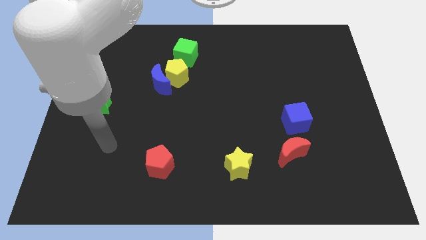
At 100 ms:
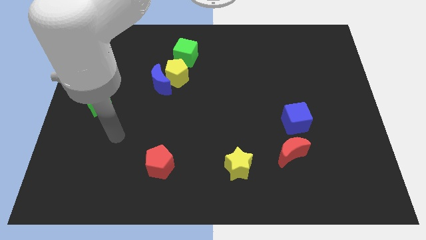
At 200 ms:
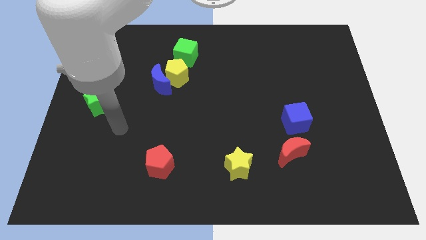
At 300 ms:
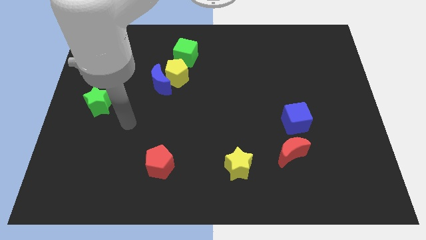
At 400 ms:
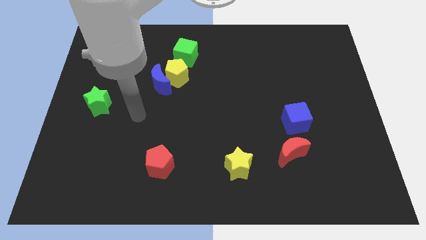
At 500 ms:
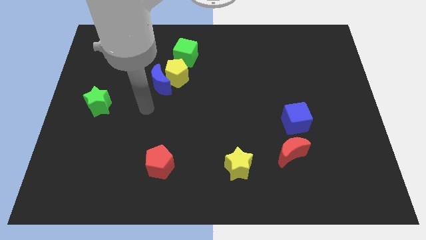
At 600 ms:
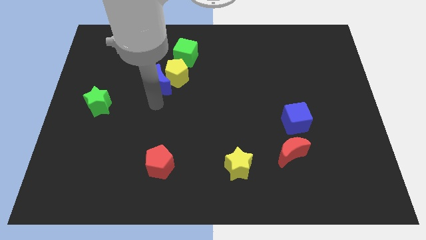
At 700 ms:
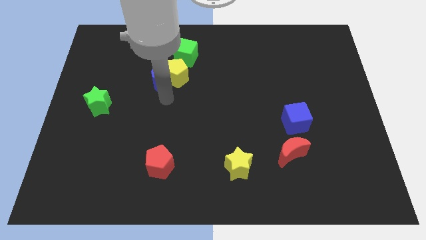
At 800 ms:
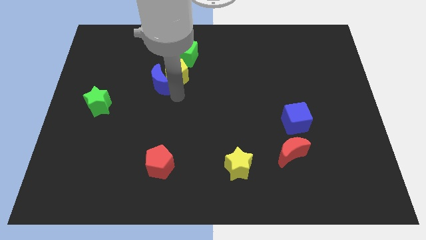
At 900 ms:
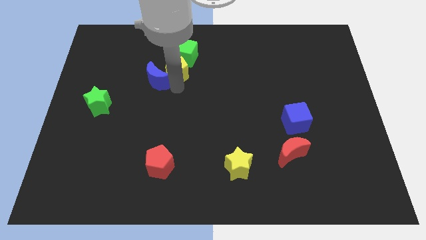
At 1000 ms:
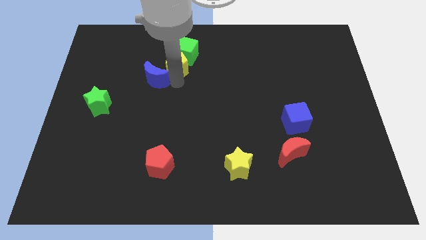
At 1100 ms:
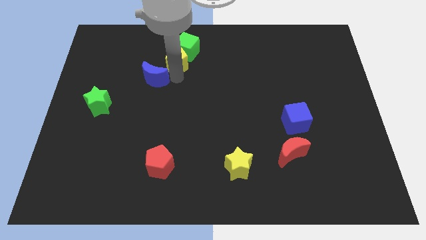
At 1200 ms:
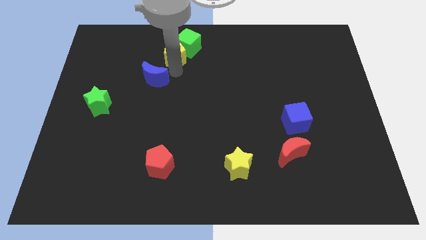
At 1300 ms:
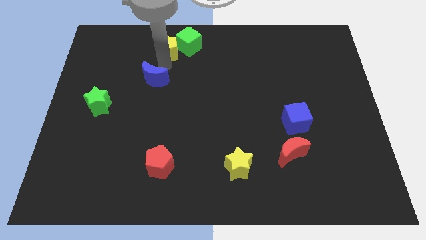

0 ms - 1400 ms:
pull the blue moon apart from the yellow pentagon

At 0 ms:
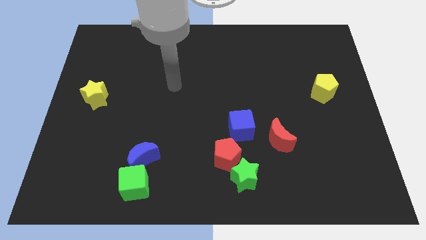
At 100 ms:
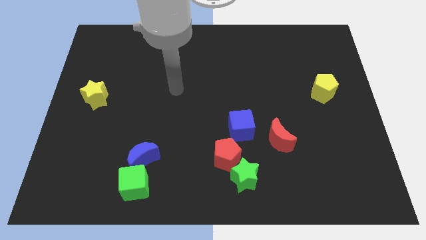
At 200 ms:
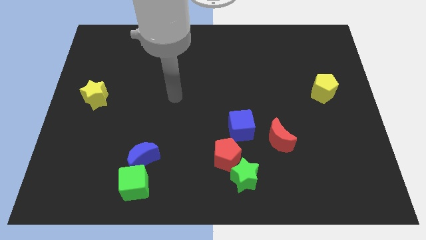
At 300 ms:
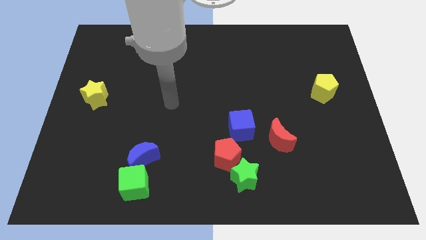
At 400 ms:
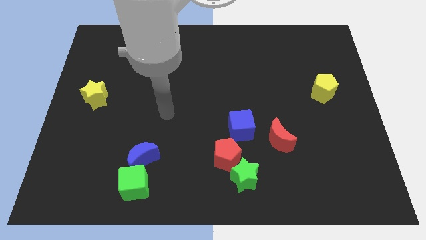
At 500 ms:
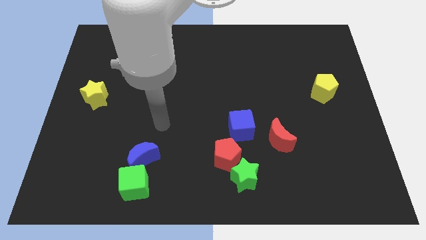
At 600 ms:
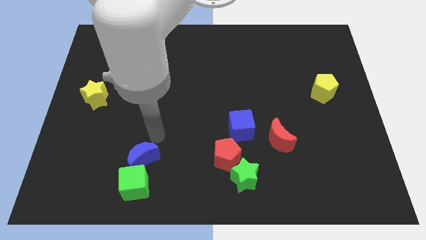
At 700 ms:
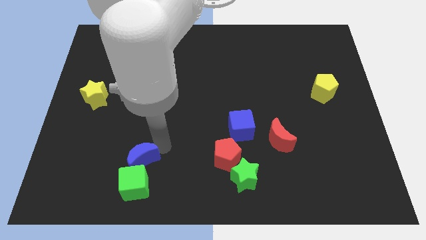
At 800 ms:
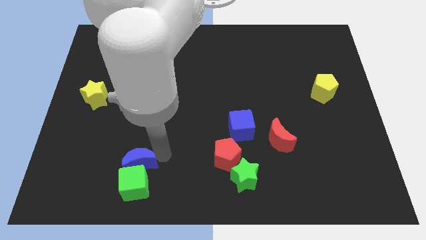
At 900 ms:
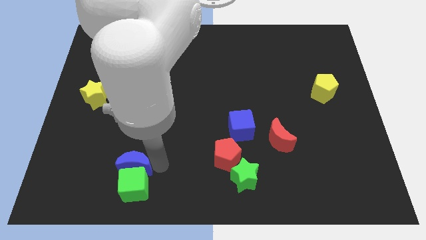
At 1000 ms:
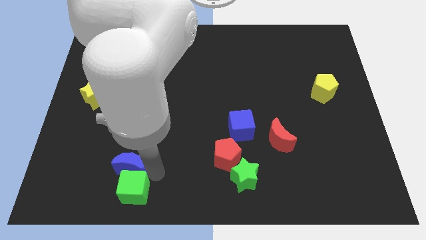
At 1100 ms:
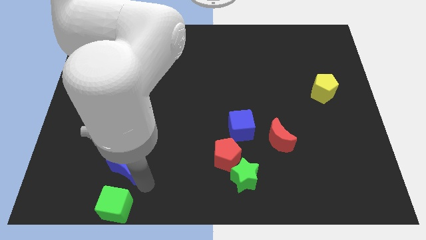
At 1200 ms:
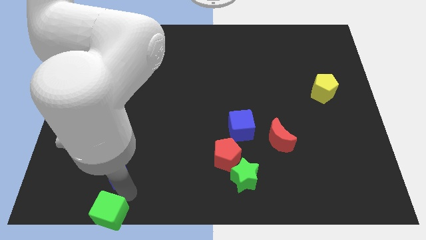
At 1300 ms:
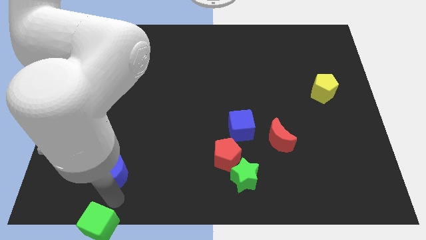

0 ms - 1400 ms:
pull the blue moon apart from the green cube

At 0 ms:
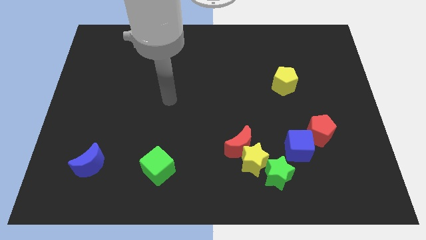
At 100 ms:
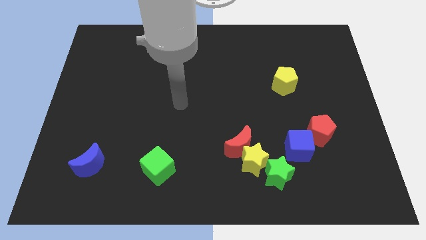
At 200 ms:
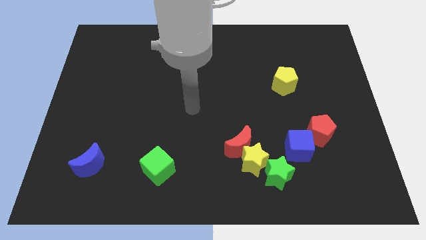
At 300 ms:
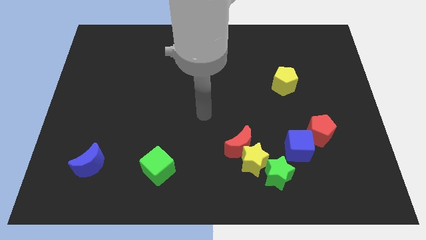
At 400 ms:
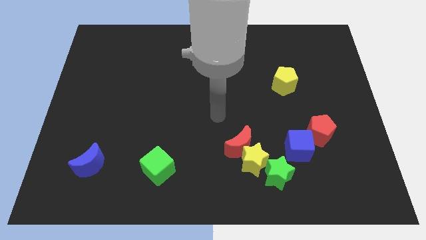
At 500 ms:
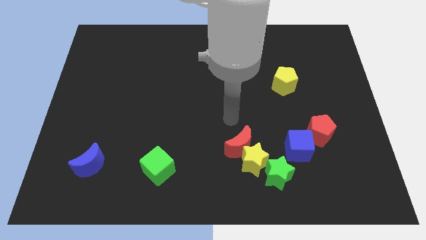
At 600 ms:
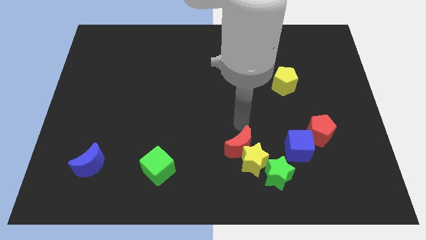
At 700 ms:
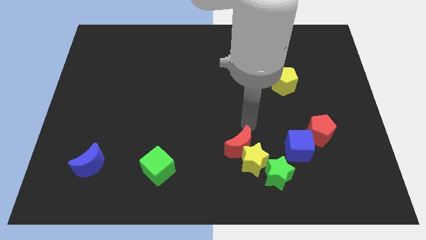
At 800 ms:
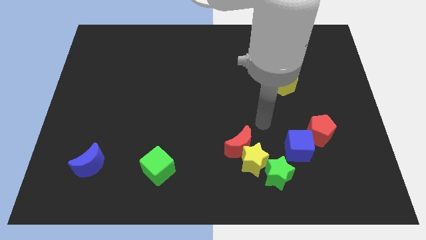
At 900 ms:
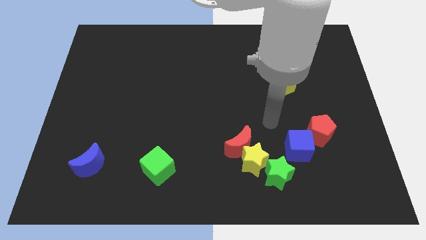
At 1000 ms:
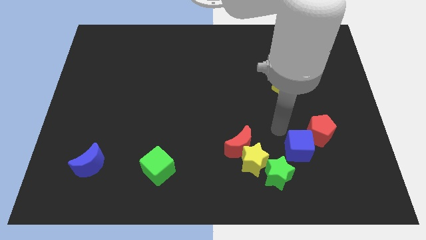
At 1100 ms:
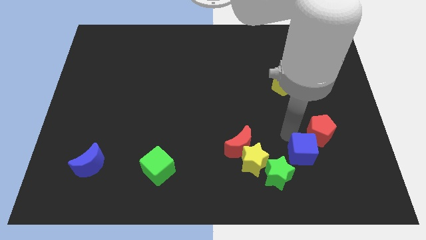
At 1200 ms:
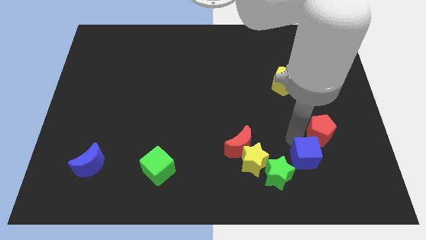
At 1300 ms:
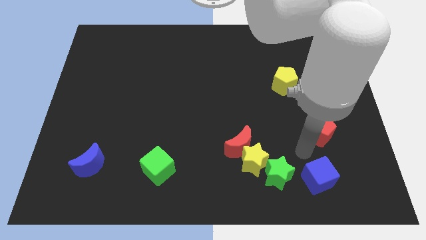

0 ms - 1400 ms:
separate the red pentagon from the blue cube

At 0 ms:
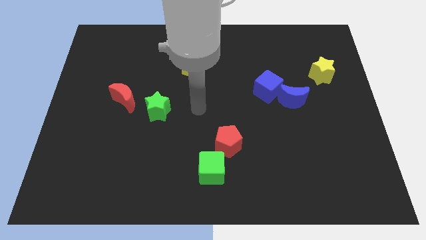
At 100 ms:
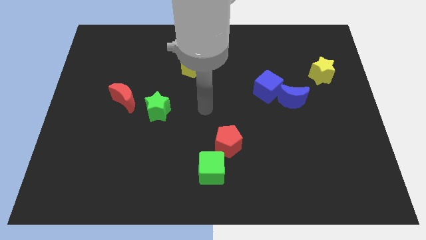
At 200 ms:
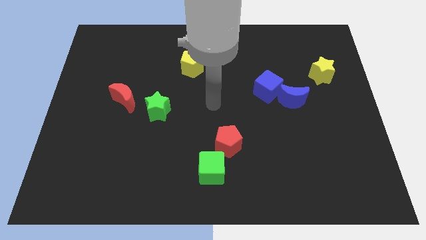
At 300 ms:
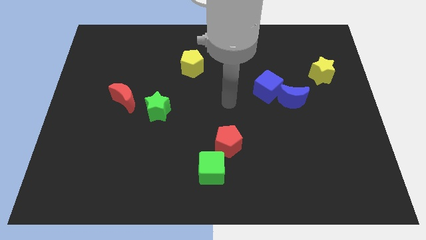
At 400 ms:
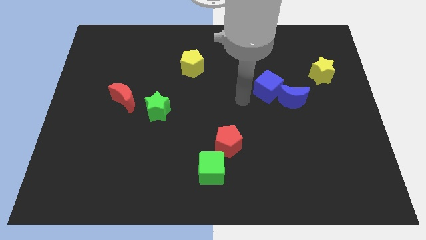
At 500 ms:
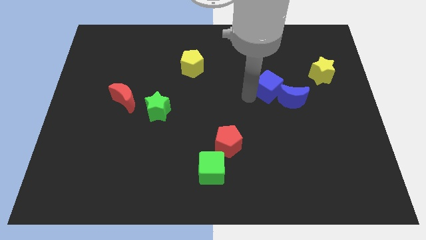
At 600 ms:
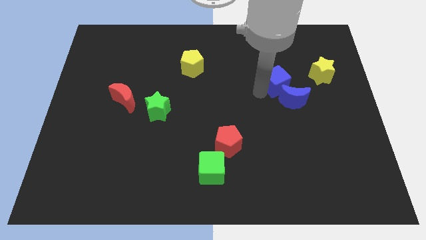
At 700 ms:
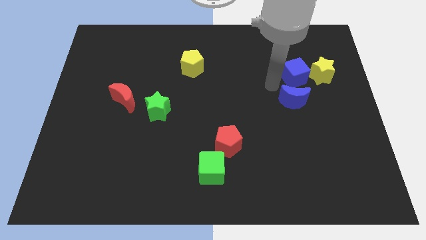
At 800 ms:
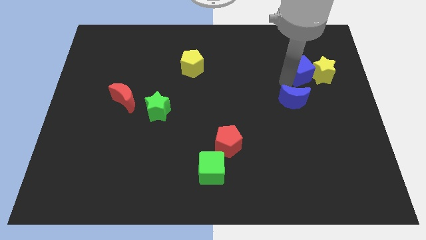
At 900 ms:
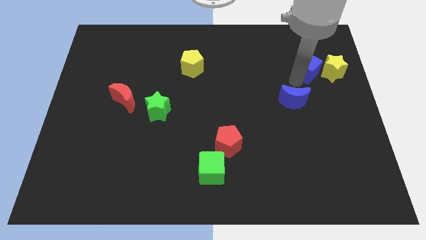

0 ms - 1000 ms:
separate the blue moon from the blue cube

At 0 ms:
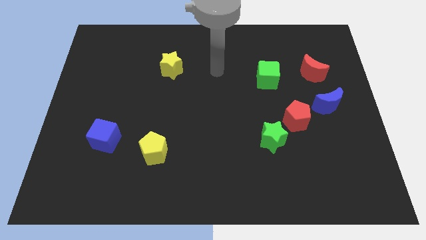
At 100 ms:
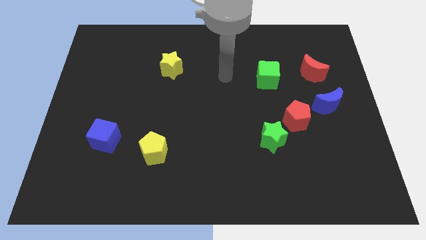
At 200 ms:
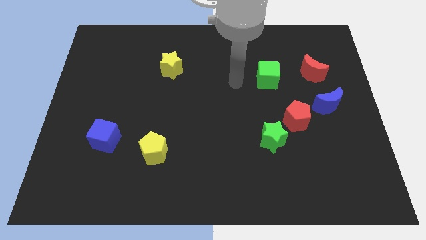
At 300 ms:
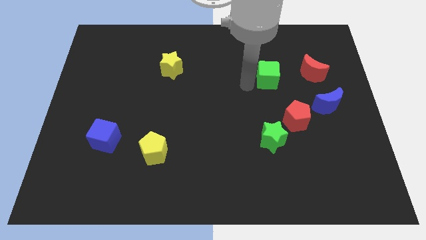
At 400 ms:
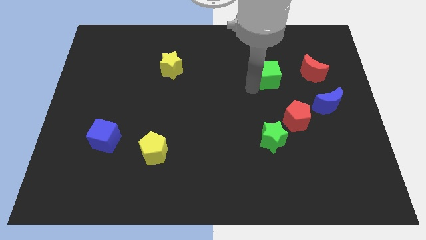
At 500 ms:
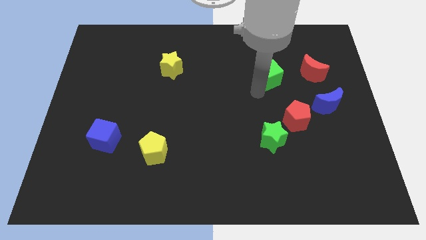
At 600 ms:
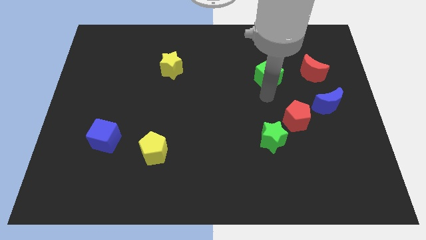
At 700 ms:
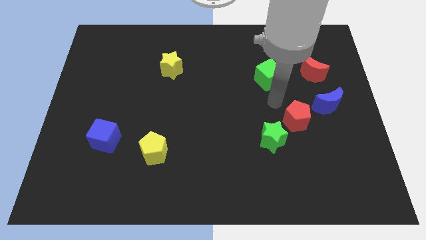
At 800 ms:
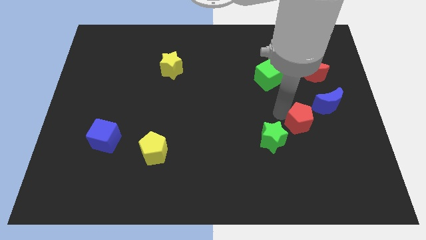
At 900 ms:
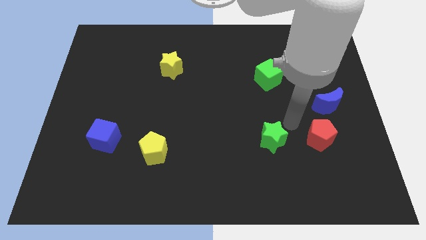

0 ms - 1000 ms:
separate the green star from the red pentagon

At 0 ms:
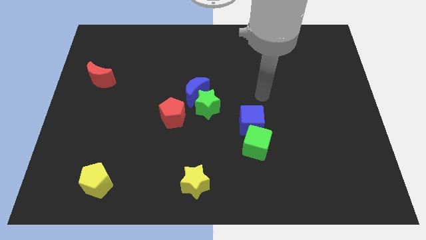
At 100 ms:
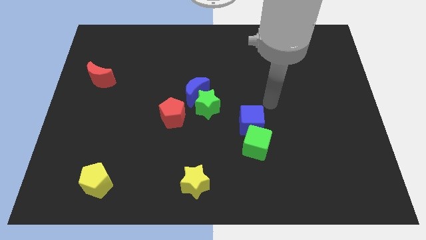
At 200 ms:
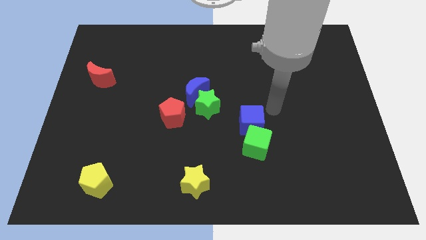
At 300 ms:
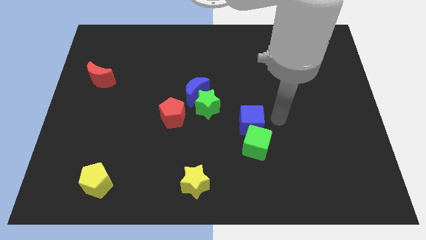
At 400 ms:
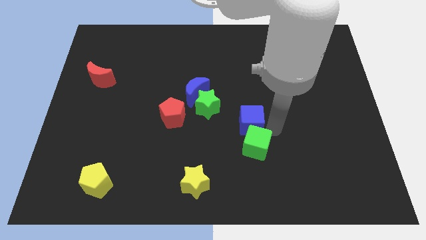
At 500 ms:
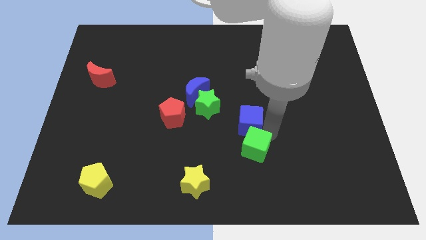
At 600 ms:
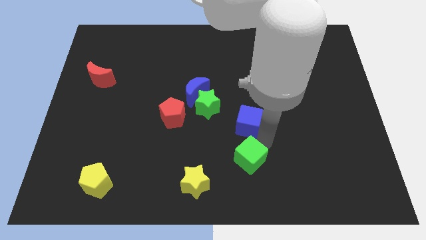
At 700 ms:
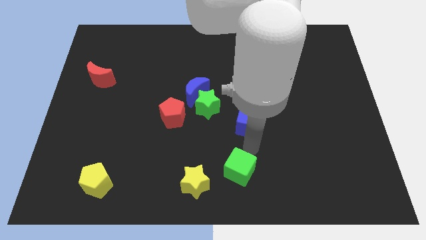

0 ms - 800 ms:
separate the blue cube from the green cube

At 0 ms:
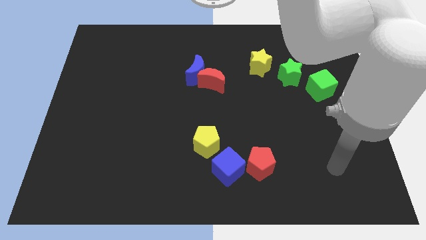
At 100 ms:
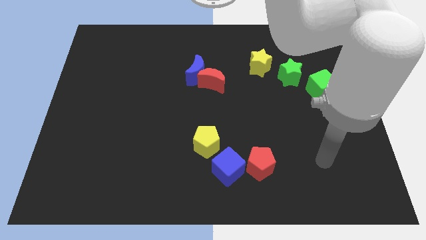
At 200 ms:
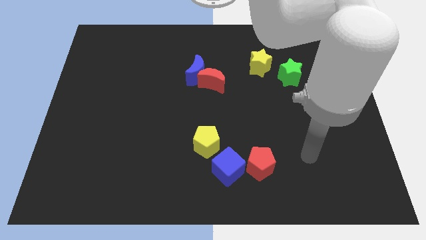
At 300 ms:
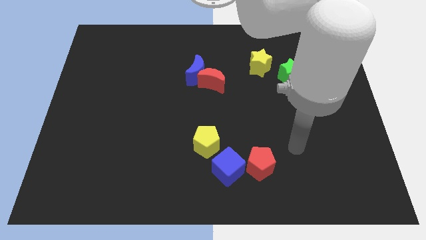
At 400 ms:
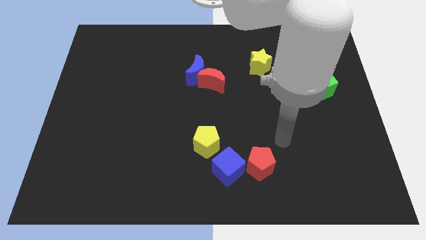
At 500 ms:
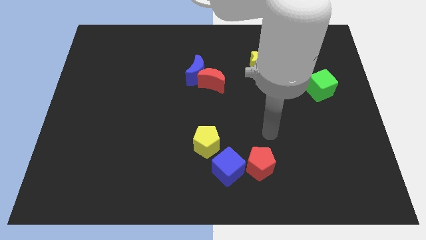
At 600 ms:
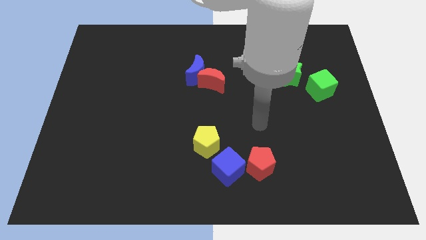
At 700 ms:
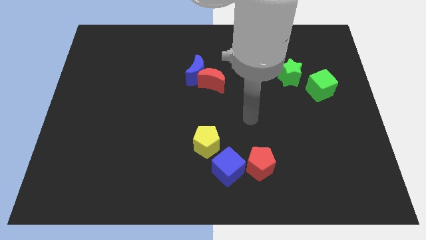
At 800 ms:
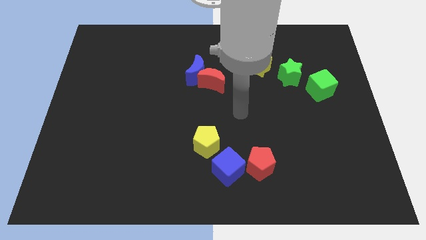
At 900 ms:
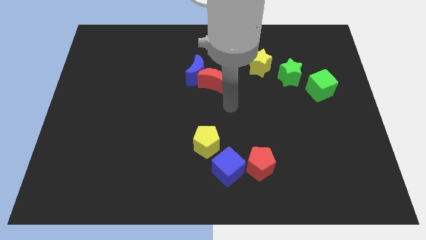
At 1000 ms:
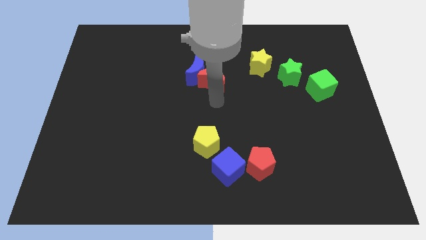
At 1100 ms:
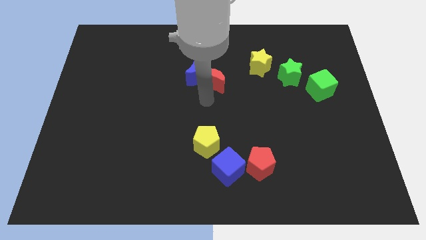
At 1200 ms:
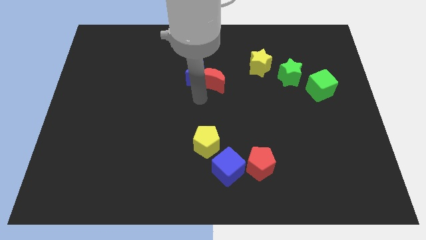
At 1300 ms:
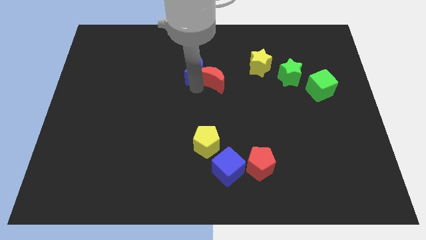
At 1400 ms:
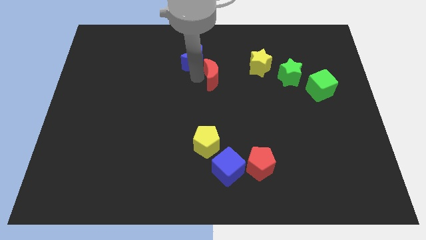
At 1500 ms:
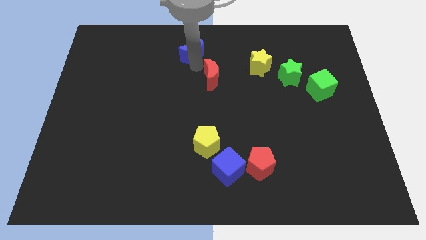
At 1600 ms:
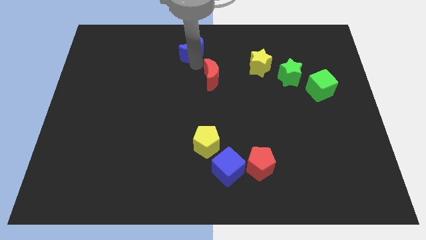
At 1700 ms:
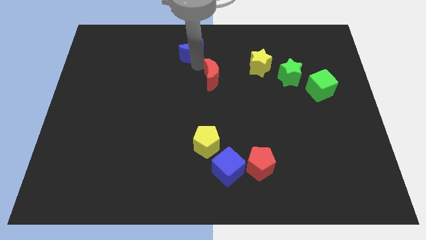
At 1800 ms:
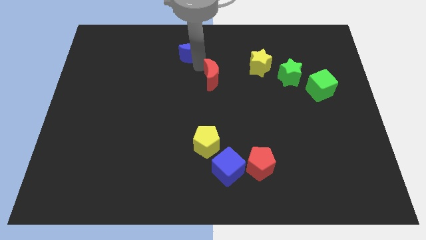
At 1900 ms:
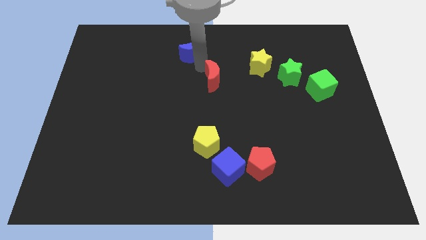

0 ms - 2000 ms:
move the red moon away from the blue moon

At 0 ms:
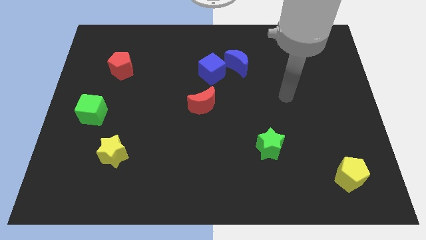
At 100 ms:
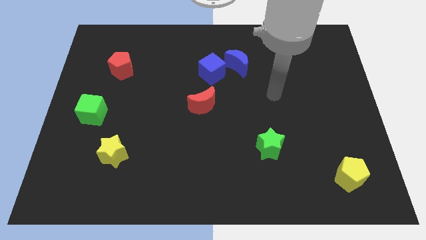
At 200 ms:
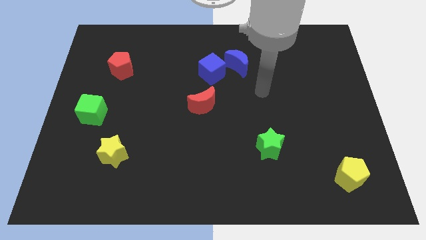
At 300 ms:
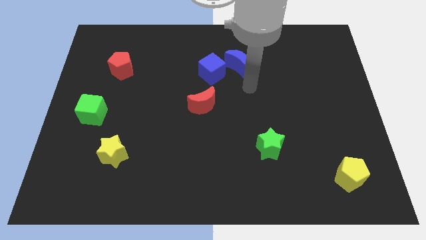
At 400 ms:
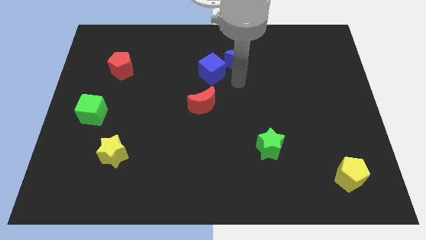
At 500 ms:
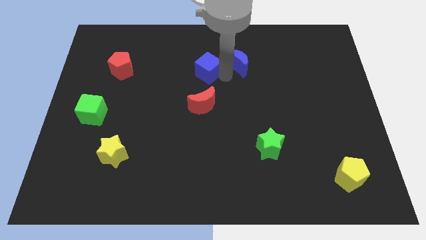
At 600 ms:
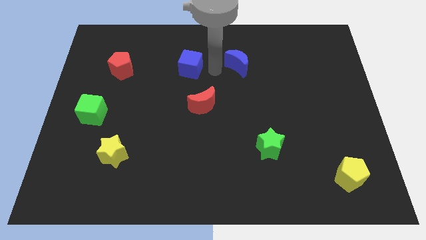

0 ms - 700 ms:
move the blue moon away from the blue cube
